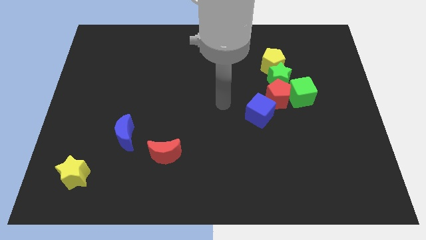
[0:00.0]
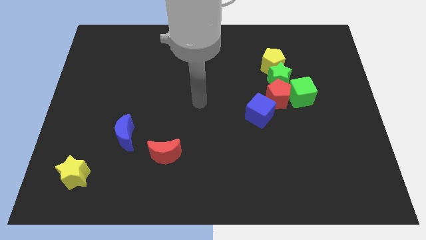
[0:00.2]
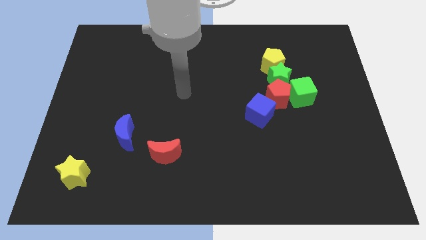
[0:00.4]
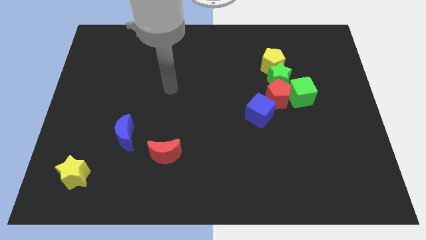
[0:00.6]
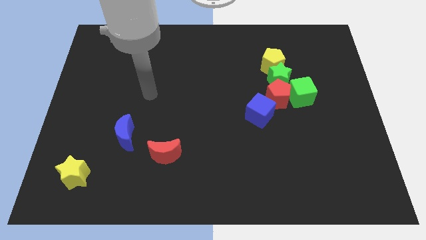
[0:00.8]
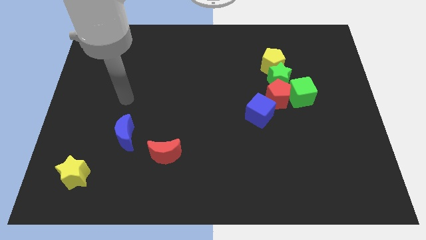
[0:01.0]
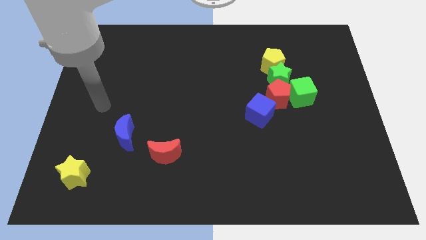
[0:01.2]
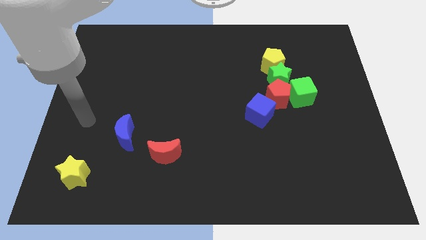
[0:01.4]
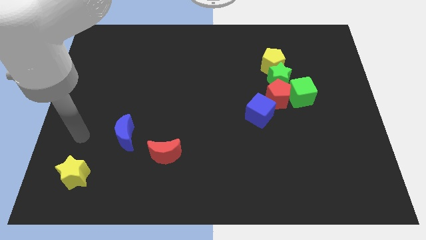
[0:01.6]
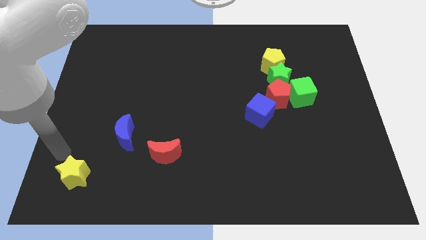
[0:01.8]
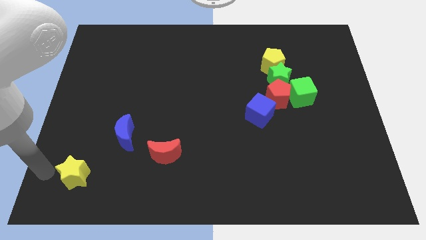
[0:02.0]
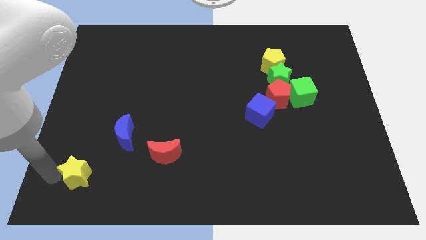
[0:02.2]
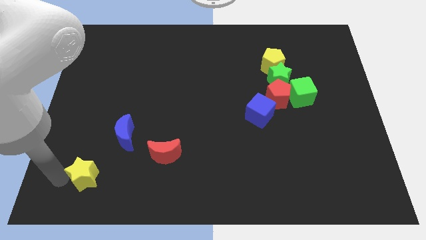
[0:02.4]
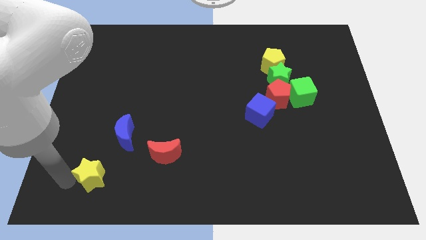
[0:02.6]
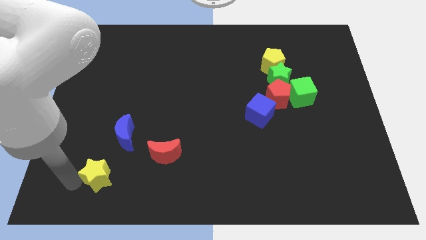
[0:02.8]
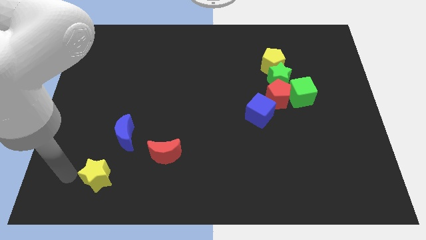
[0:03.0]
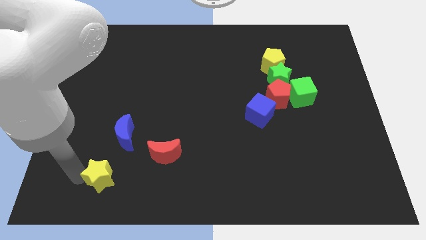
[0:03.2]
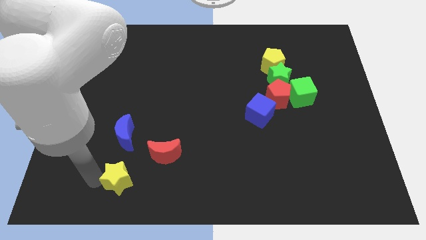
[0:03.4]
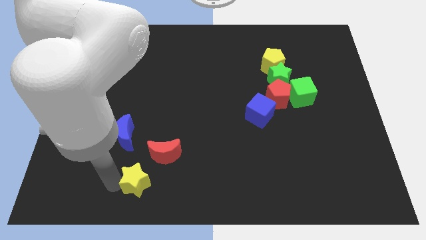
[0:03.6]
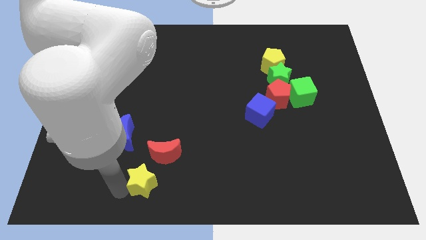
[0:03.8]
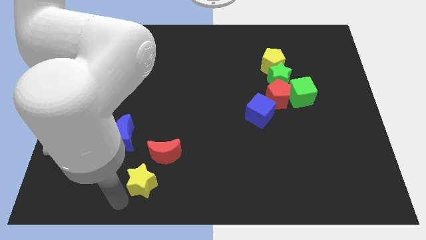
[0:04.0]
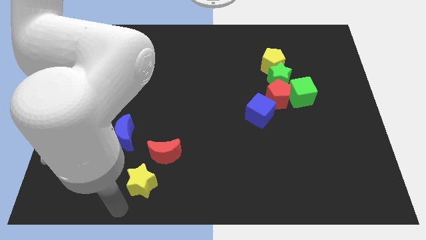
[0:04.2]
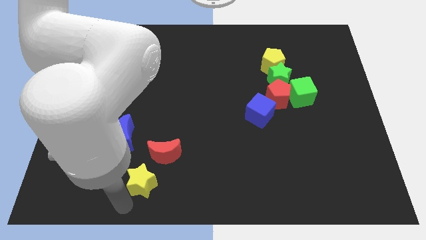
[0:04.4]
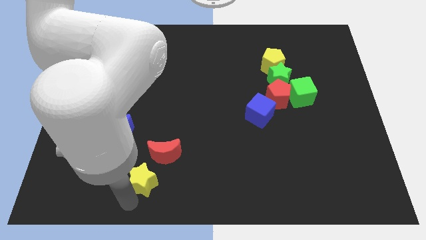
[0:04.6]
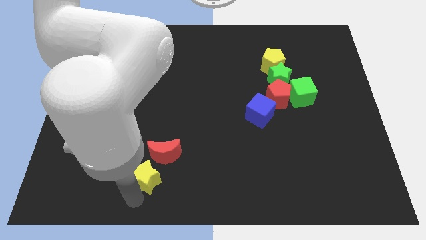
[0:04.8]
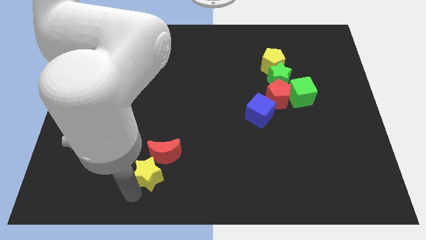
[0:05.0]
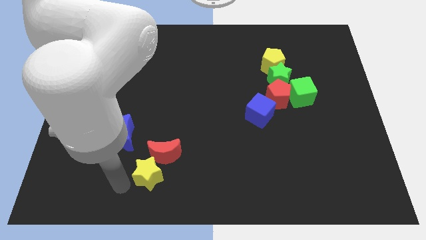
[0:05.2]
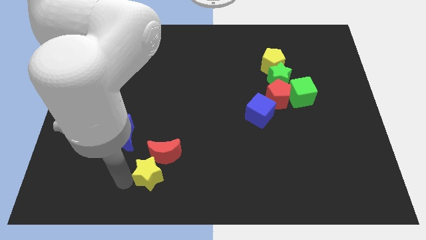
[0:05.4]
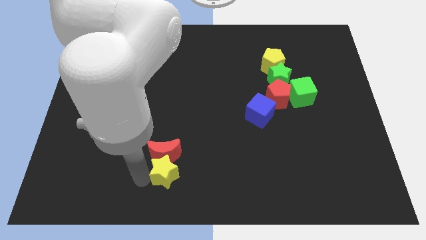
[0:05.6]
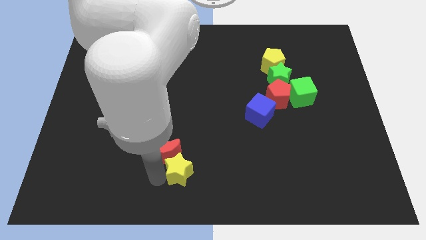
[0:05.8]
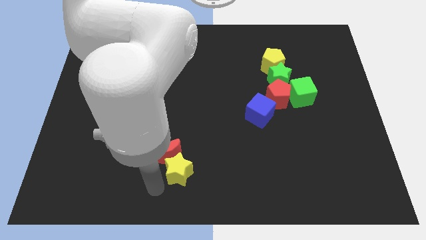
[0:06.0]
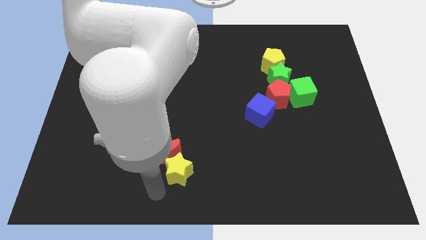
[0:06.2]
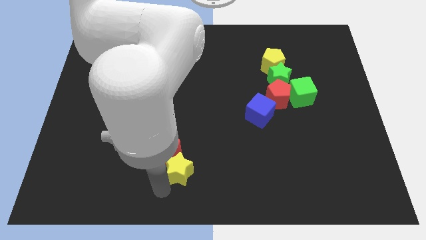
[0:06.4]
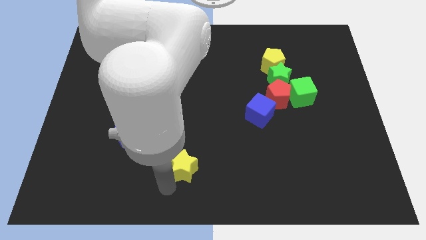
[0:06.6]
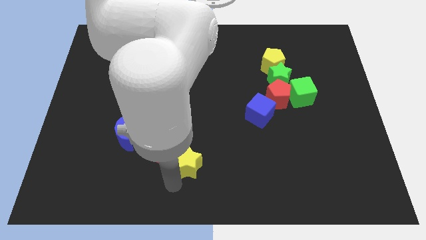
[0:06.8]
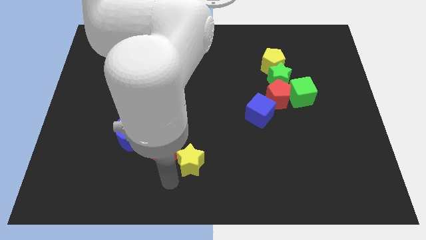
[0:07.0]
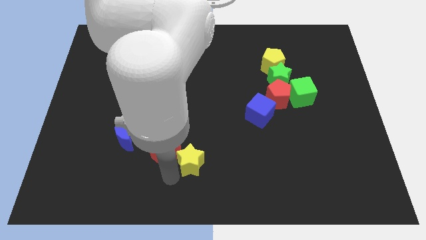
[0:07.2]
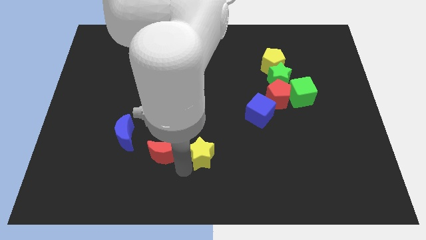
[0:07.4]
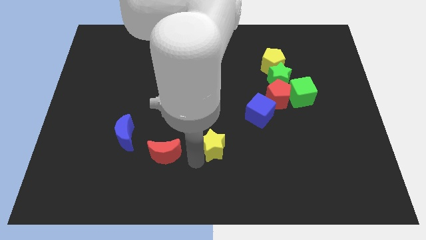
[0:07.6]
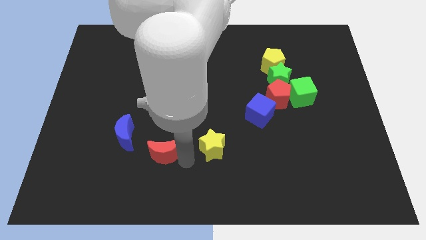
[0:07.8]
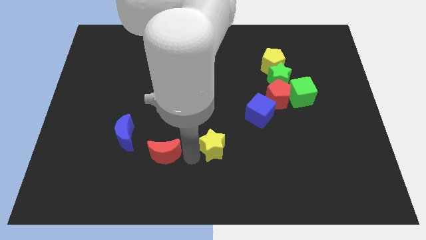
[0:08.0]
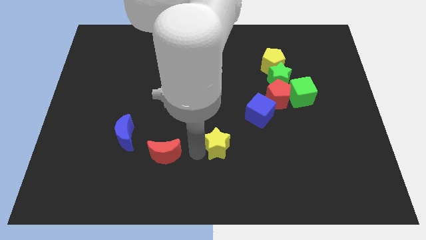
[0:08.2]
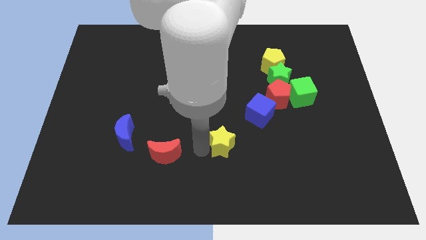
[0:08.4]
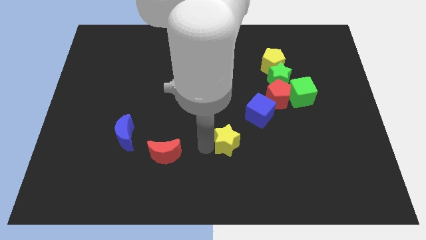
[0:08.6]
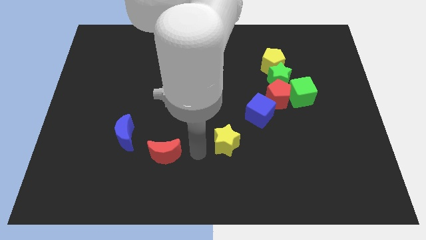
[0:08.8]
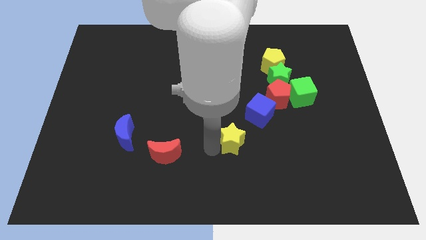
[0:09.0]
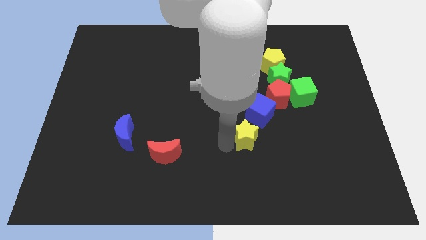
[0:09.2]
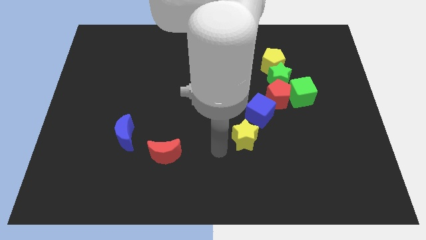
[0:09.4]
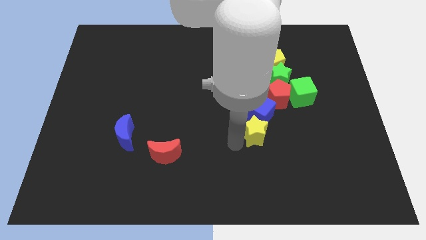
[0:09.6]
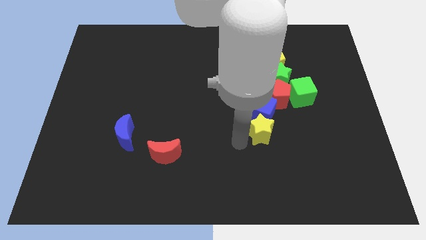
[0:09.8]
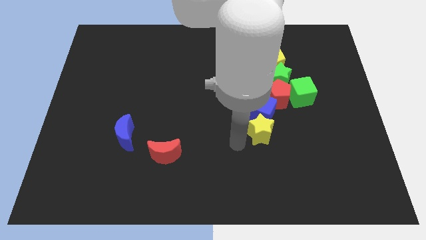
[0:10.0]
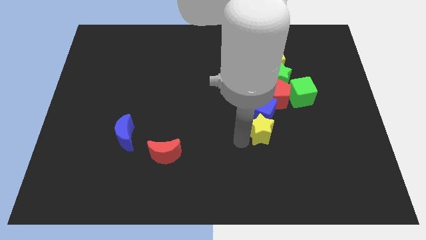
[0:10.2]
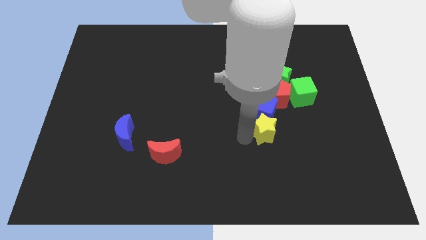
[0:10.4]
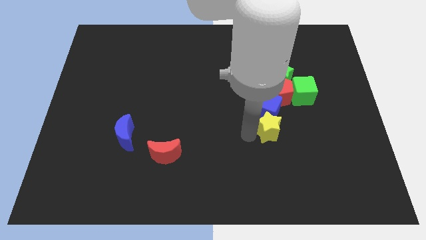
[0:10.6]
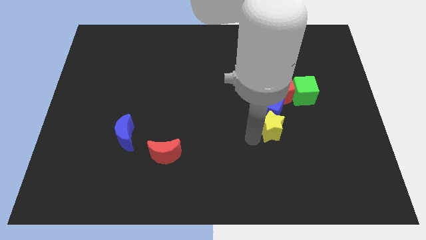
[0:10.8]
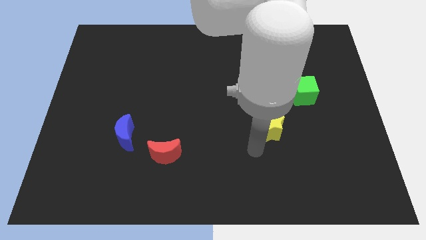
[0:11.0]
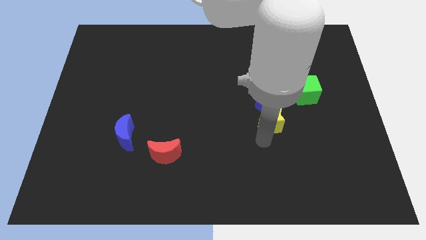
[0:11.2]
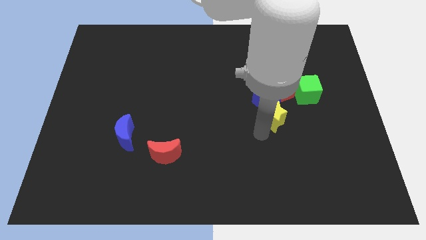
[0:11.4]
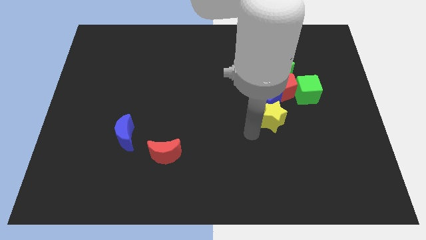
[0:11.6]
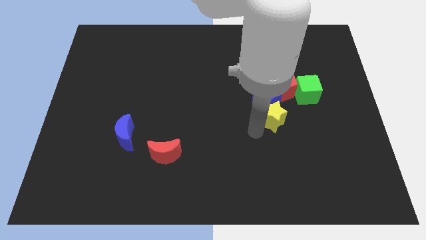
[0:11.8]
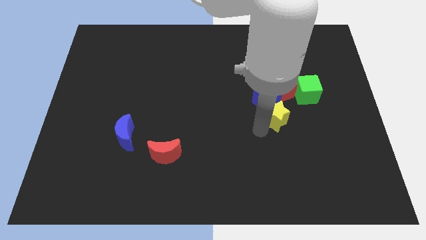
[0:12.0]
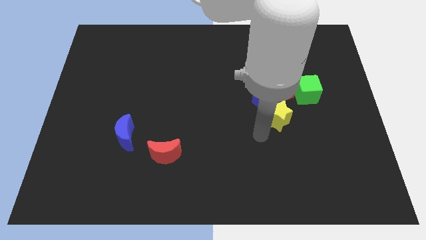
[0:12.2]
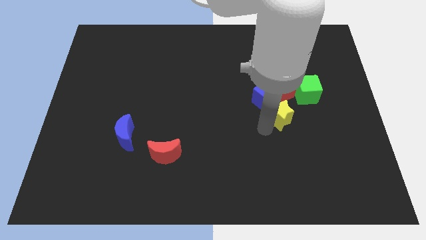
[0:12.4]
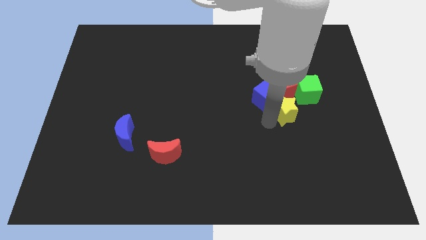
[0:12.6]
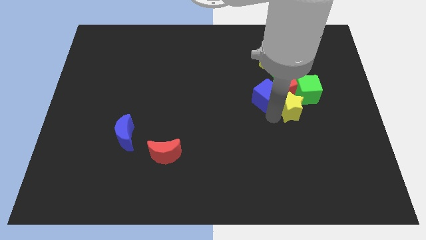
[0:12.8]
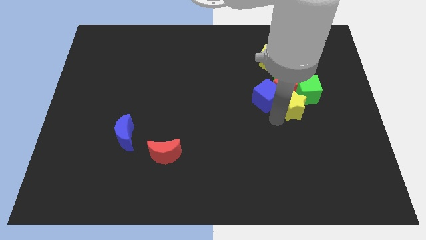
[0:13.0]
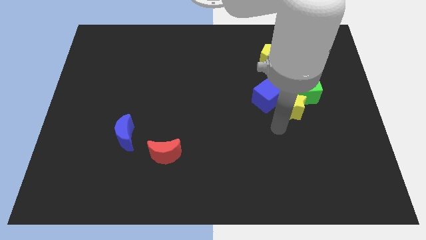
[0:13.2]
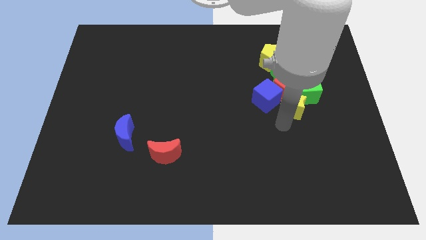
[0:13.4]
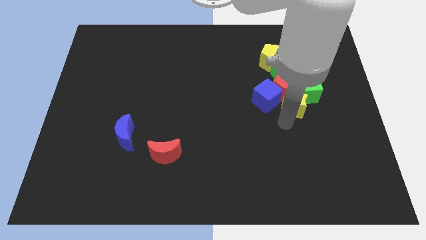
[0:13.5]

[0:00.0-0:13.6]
move the yellow star next to the green cube
